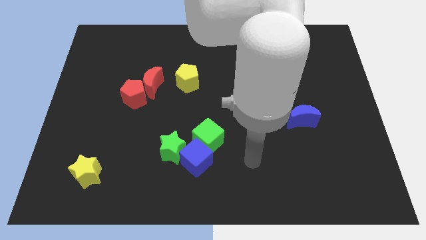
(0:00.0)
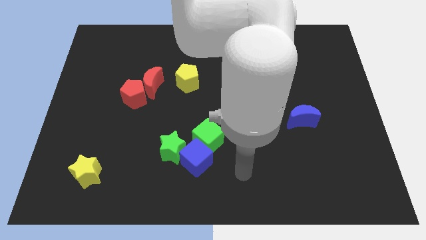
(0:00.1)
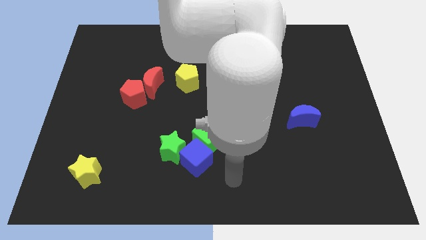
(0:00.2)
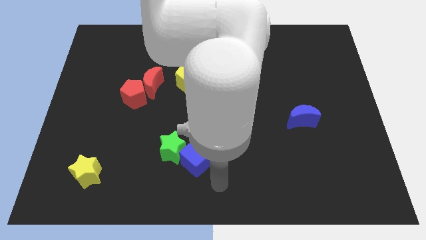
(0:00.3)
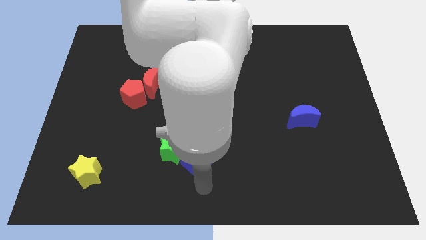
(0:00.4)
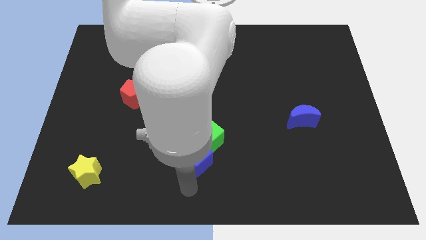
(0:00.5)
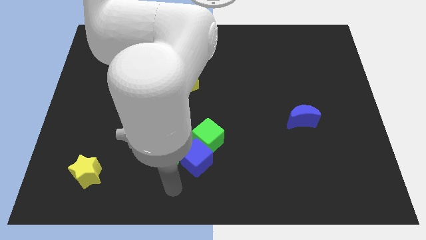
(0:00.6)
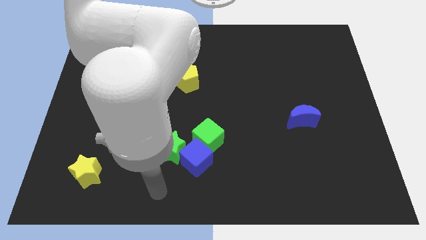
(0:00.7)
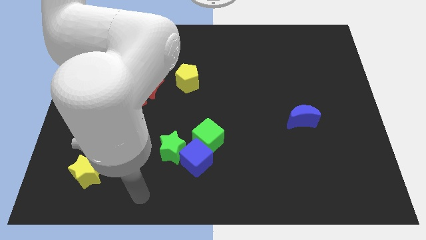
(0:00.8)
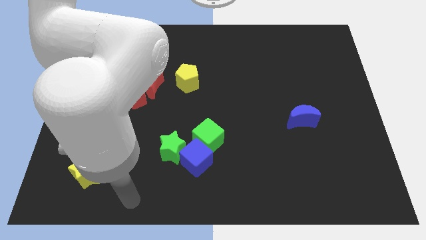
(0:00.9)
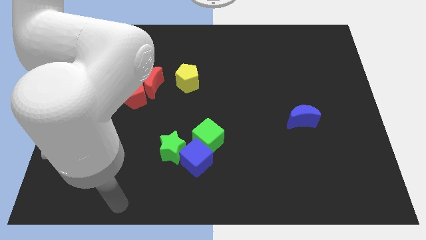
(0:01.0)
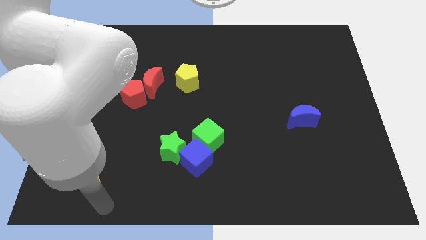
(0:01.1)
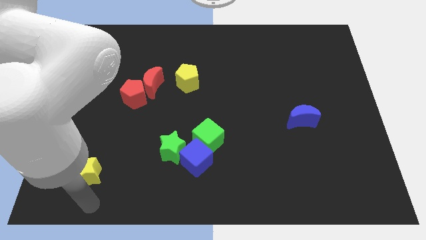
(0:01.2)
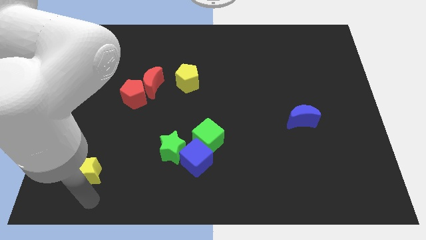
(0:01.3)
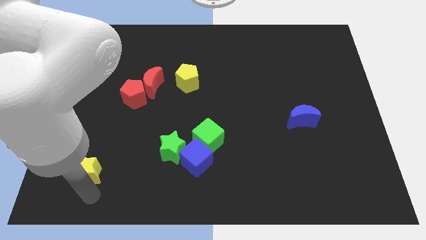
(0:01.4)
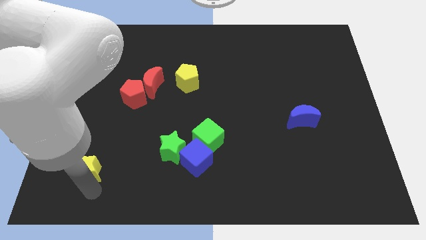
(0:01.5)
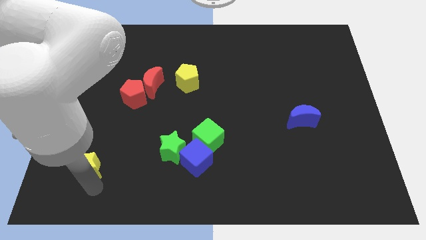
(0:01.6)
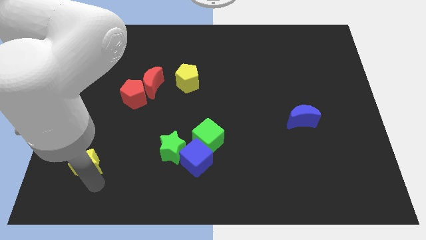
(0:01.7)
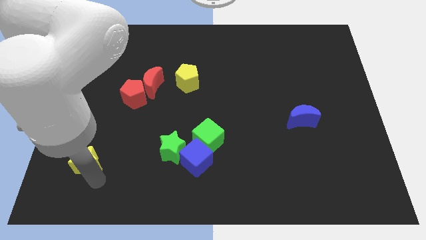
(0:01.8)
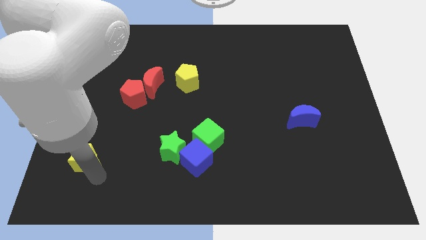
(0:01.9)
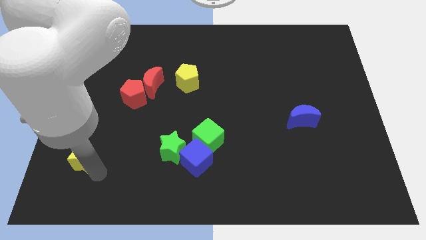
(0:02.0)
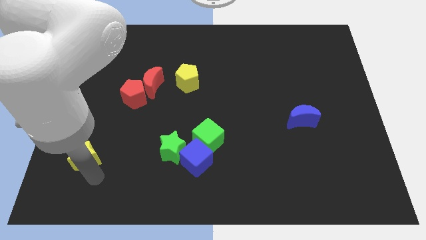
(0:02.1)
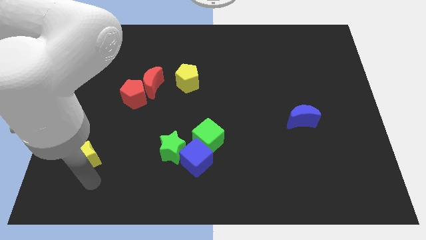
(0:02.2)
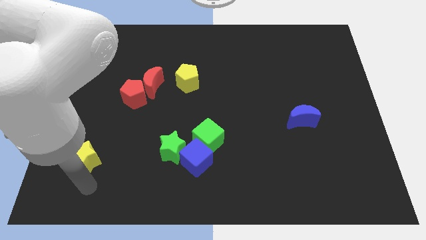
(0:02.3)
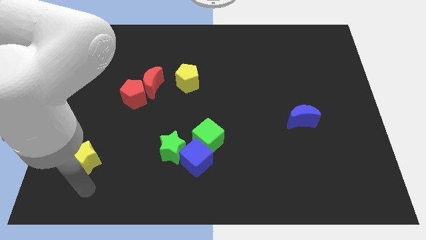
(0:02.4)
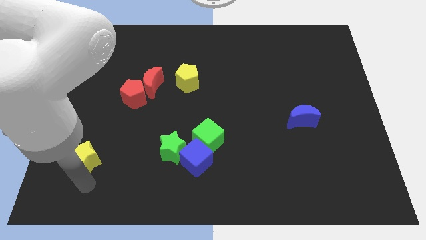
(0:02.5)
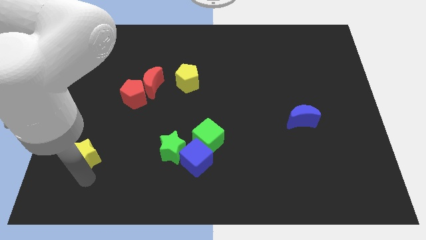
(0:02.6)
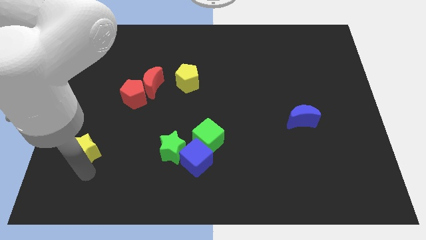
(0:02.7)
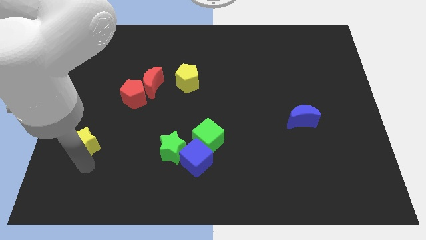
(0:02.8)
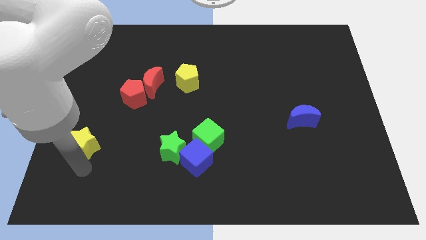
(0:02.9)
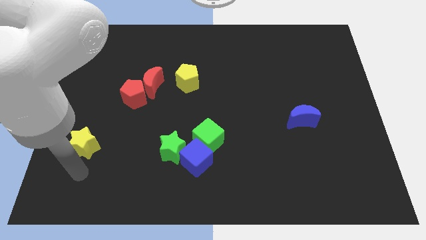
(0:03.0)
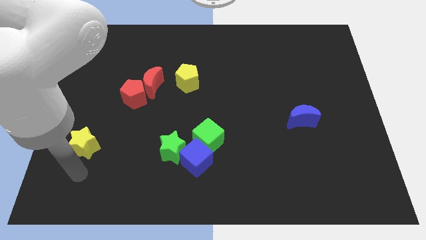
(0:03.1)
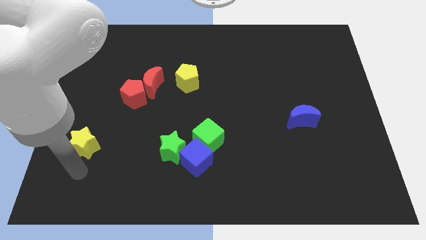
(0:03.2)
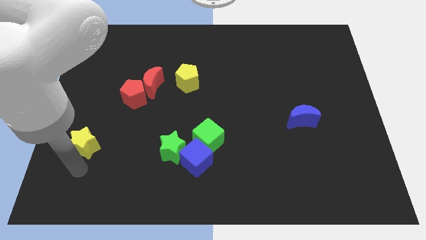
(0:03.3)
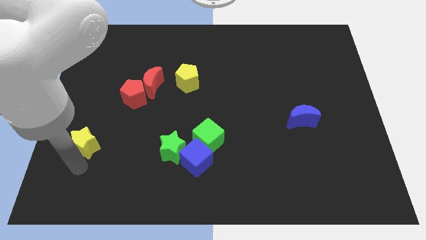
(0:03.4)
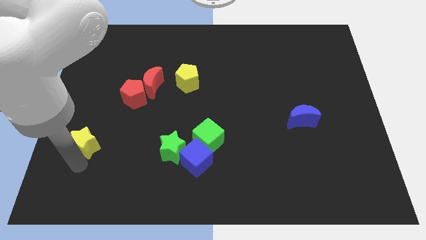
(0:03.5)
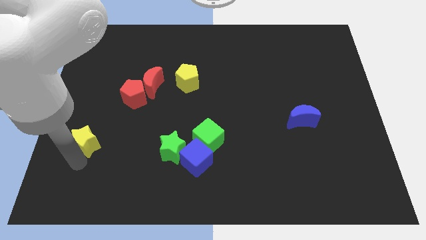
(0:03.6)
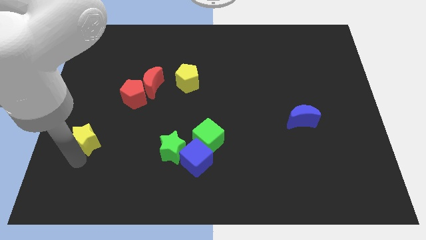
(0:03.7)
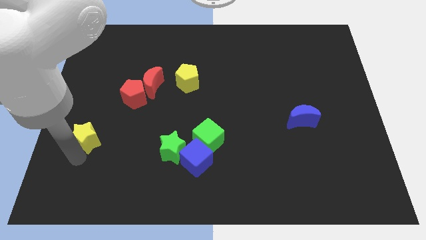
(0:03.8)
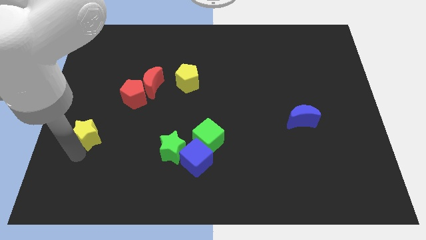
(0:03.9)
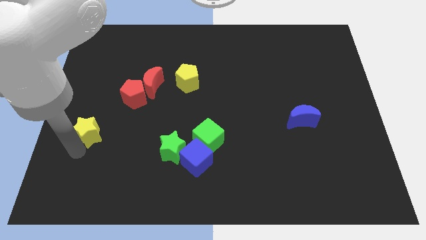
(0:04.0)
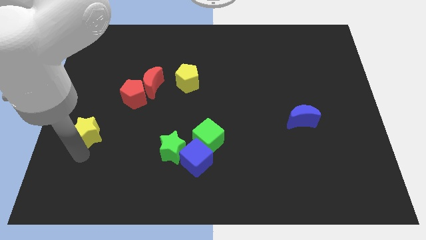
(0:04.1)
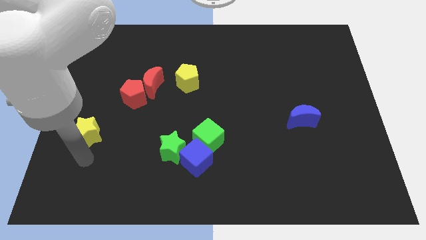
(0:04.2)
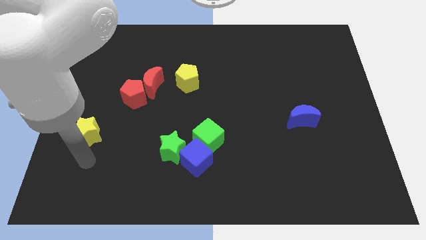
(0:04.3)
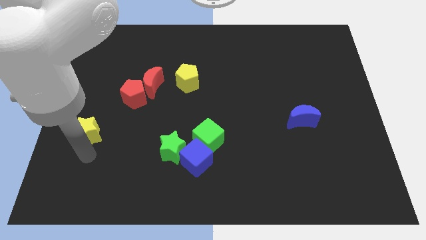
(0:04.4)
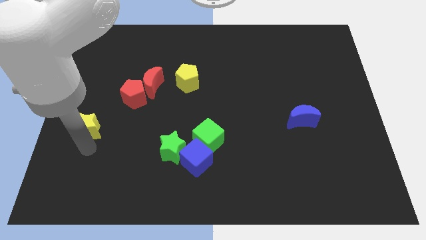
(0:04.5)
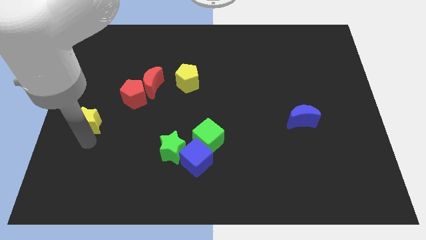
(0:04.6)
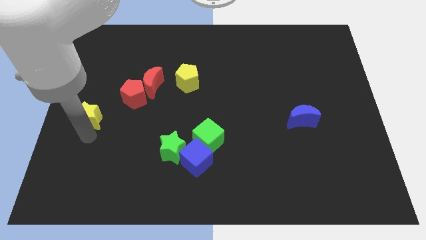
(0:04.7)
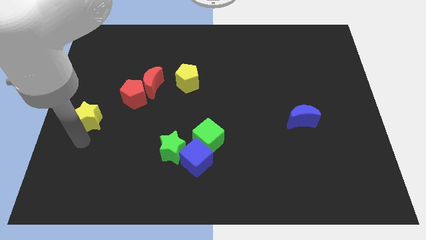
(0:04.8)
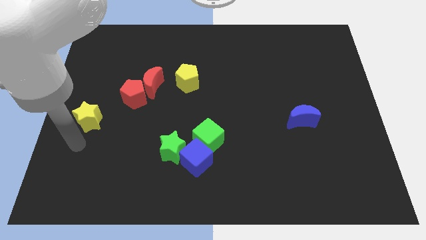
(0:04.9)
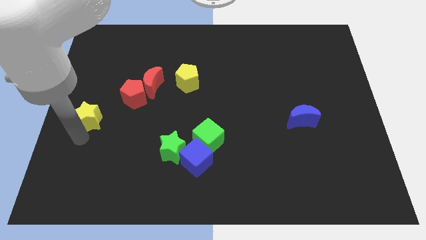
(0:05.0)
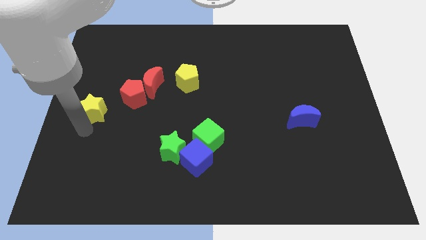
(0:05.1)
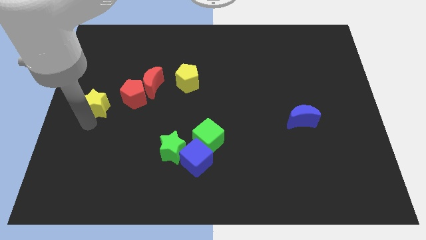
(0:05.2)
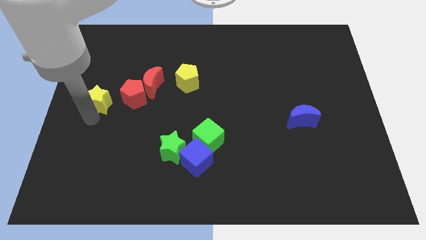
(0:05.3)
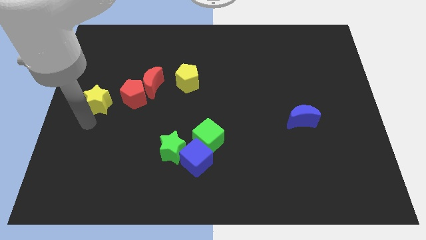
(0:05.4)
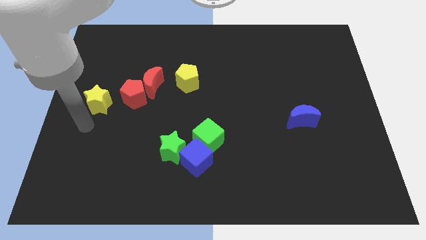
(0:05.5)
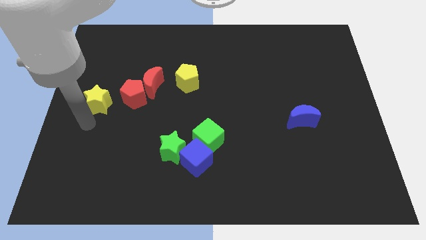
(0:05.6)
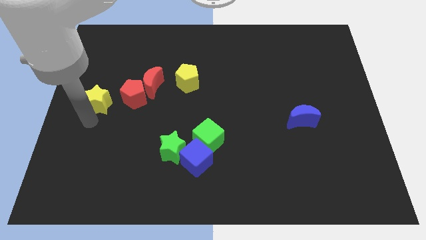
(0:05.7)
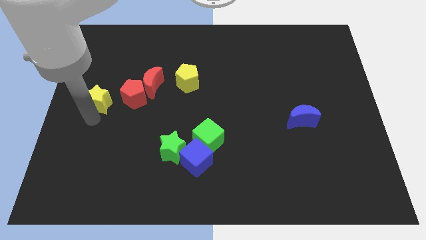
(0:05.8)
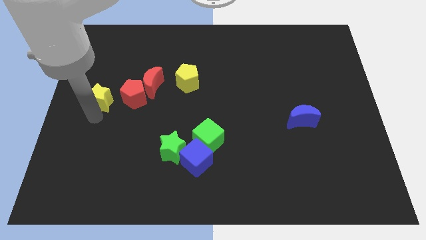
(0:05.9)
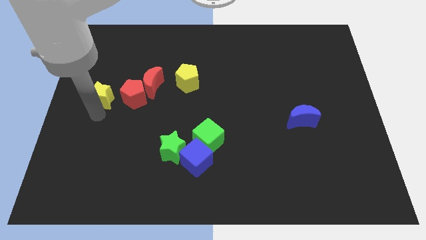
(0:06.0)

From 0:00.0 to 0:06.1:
push the yellow star to the left side of the red moon

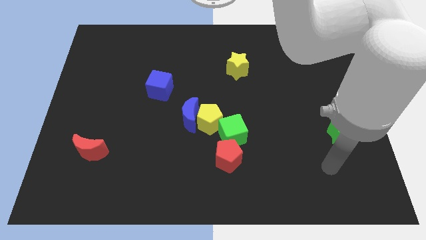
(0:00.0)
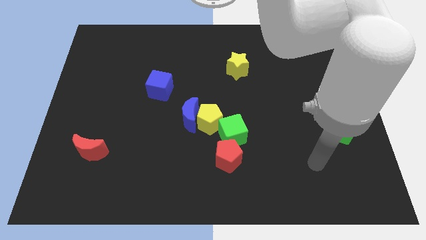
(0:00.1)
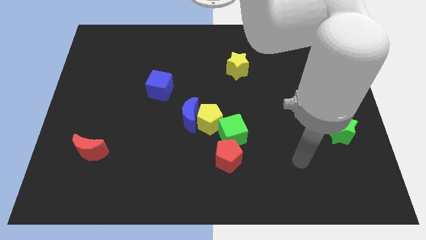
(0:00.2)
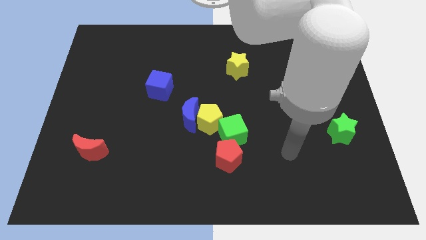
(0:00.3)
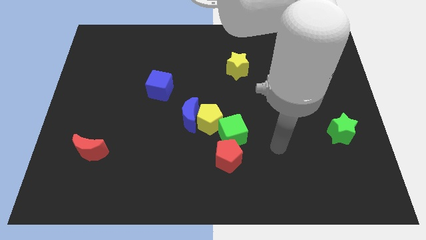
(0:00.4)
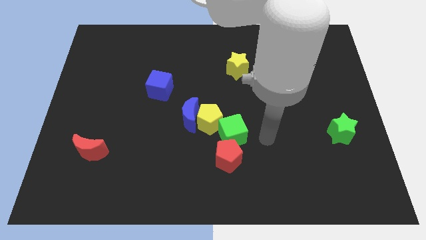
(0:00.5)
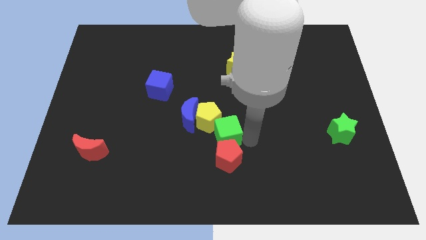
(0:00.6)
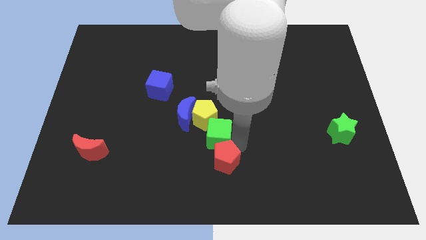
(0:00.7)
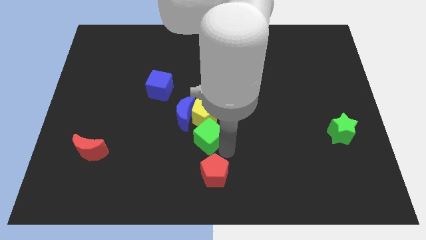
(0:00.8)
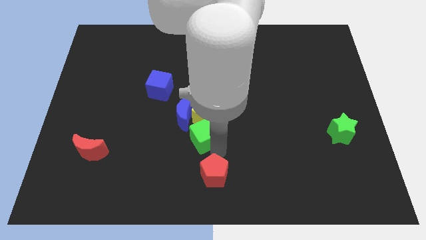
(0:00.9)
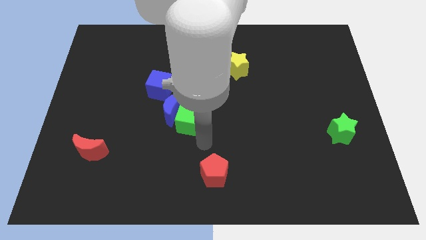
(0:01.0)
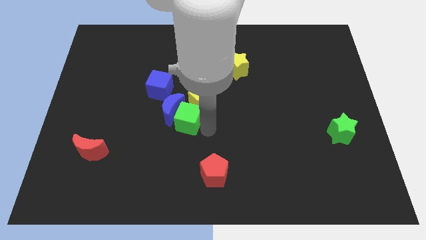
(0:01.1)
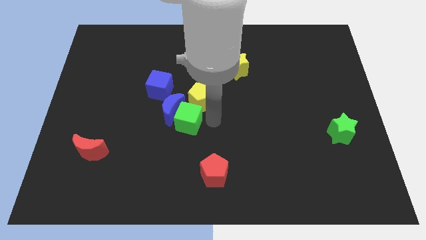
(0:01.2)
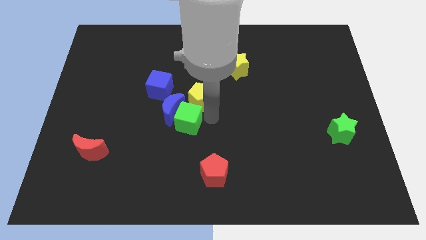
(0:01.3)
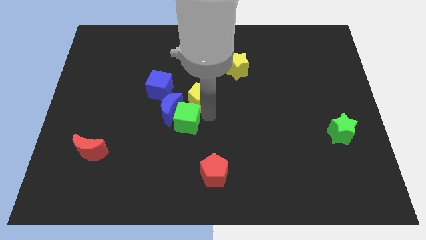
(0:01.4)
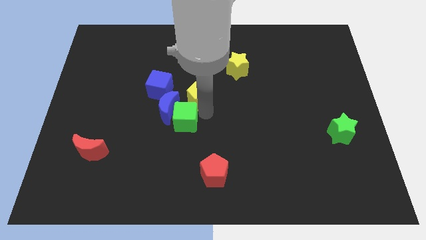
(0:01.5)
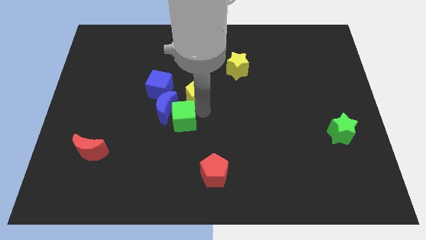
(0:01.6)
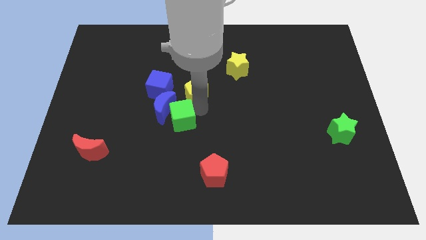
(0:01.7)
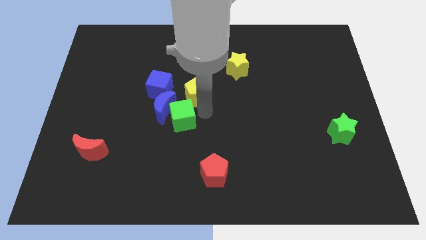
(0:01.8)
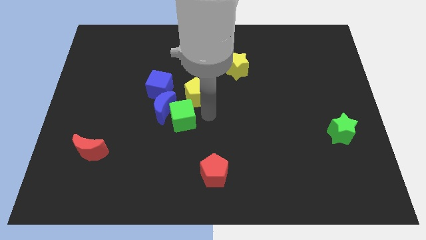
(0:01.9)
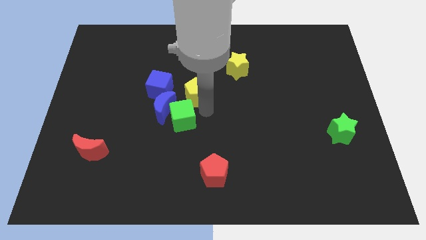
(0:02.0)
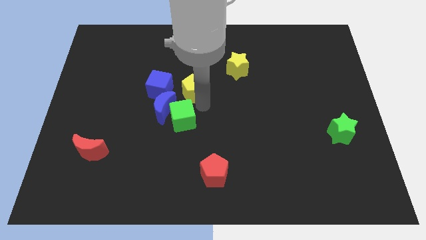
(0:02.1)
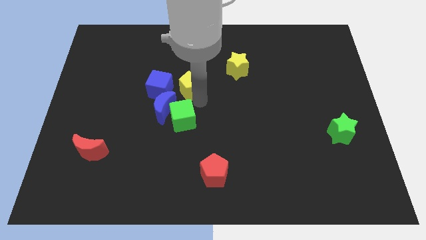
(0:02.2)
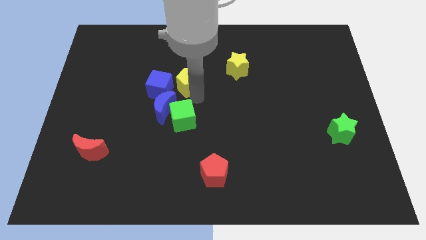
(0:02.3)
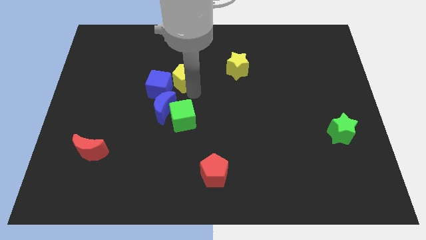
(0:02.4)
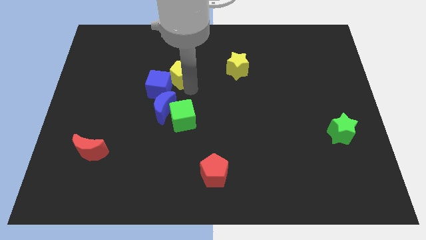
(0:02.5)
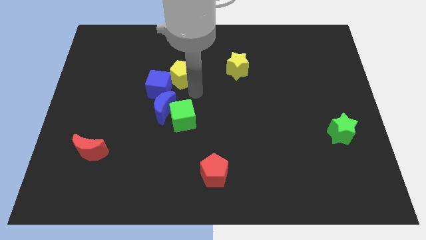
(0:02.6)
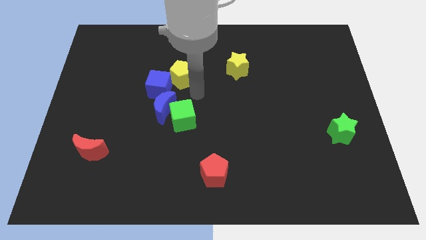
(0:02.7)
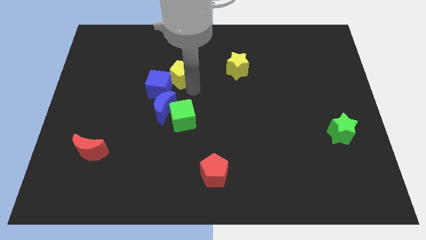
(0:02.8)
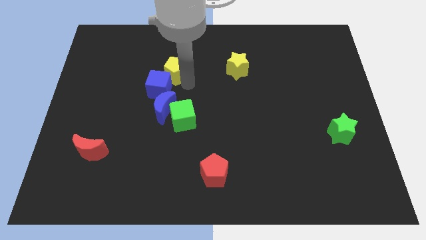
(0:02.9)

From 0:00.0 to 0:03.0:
slide the yellow pentagon to the top of the blue cube
